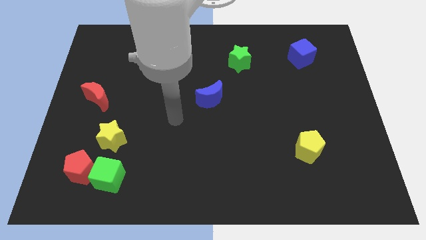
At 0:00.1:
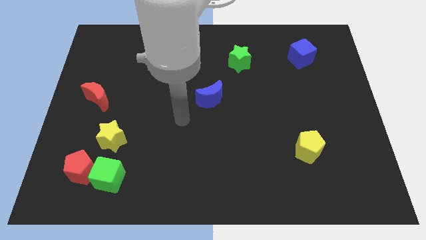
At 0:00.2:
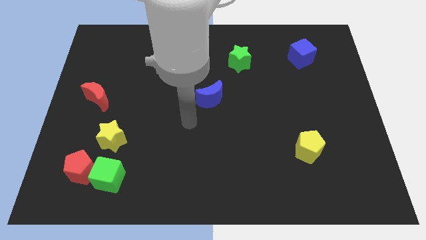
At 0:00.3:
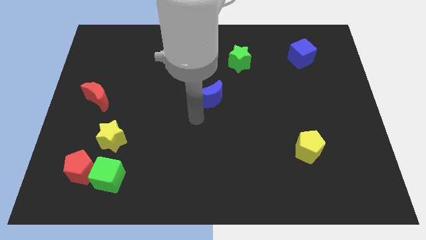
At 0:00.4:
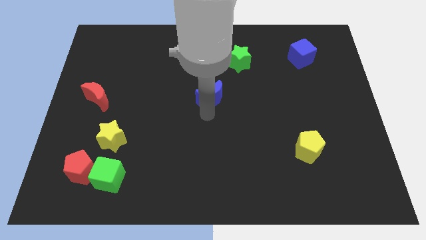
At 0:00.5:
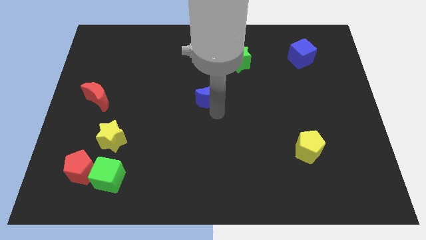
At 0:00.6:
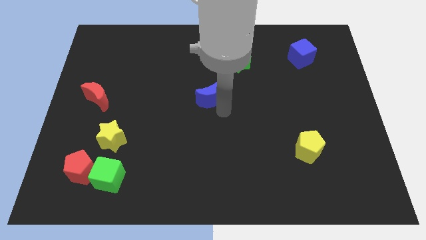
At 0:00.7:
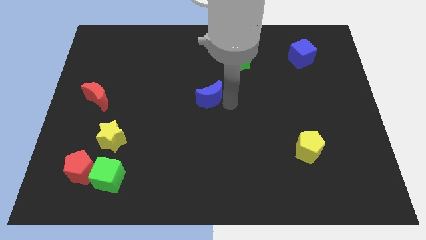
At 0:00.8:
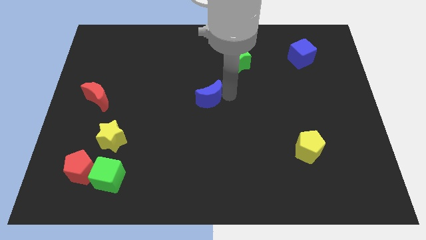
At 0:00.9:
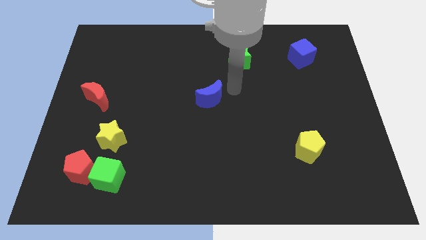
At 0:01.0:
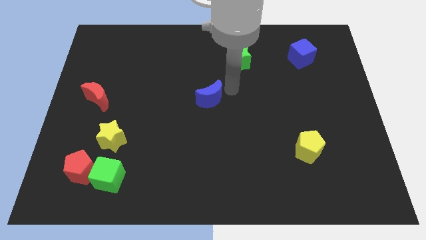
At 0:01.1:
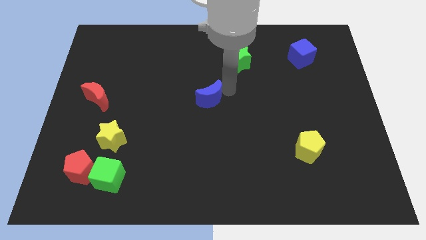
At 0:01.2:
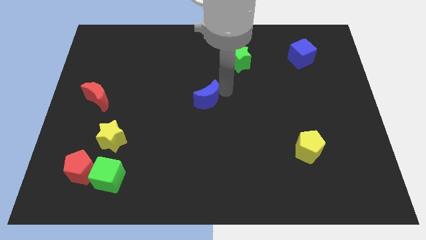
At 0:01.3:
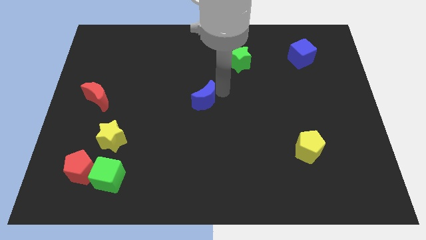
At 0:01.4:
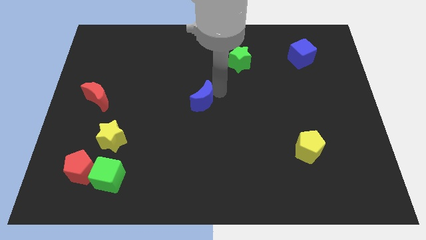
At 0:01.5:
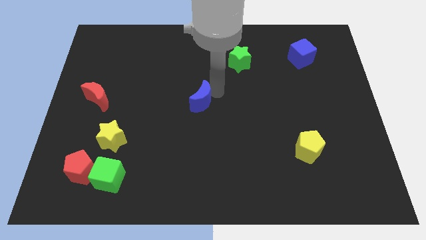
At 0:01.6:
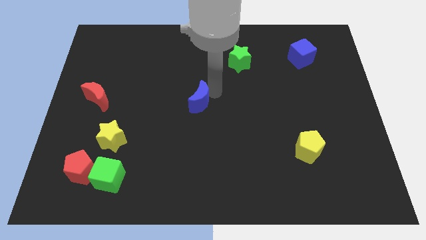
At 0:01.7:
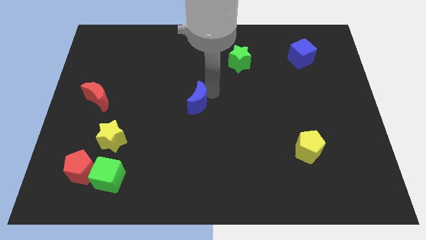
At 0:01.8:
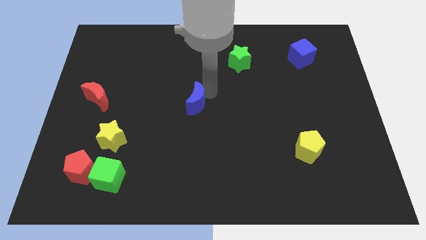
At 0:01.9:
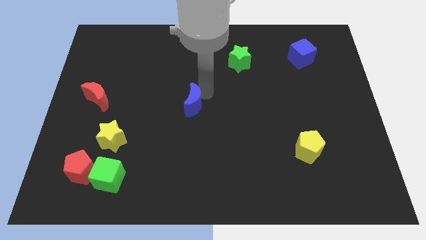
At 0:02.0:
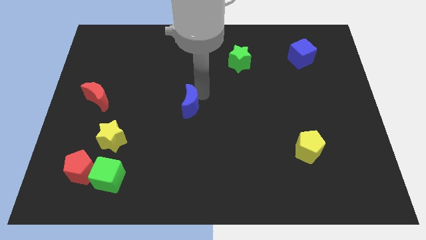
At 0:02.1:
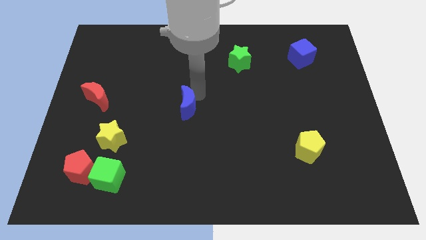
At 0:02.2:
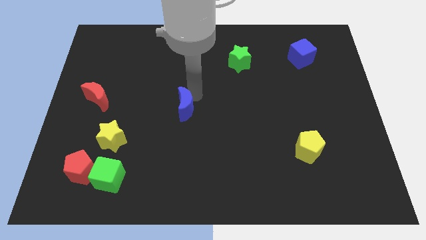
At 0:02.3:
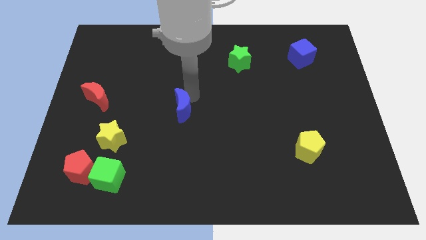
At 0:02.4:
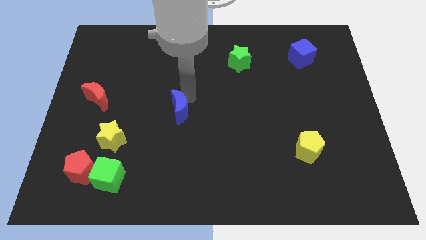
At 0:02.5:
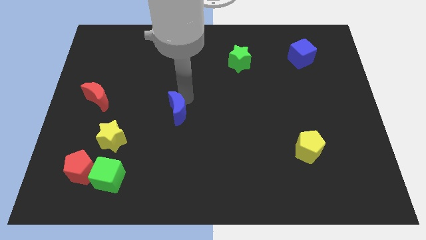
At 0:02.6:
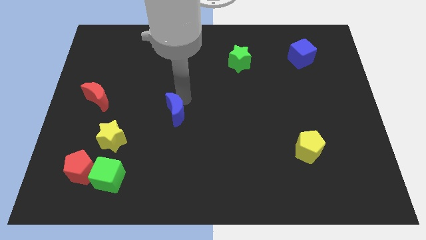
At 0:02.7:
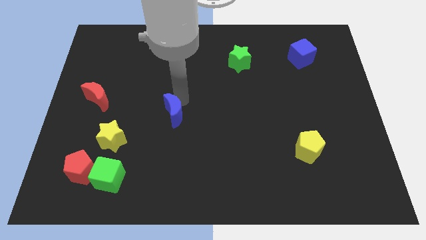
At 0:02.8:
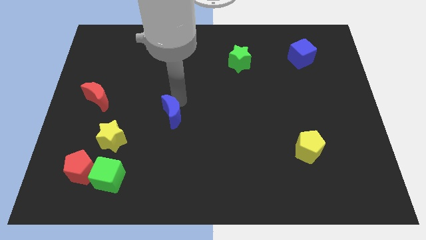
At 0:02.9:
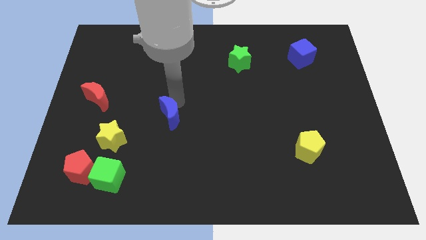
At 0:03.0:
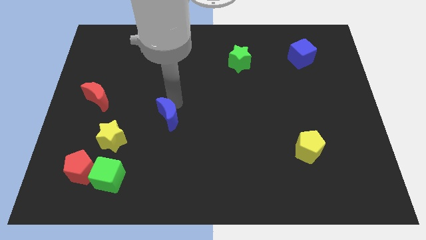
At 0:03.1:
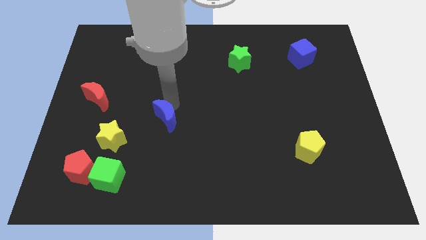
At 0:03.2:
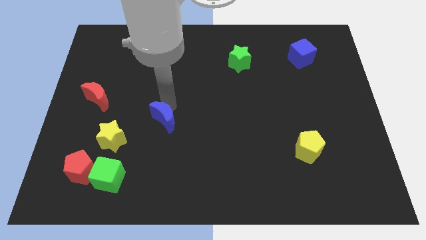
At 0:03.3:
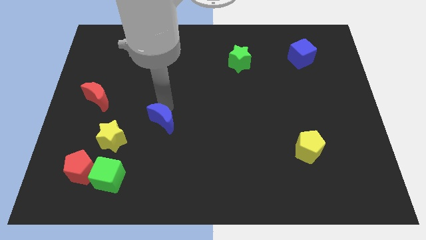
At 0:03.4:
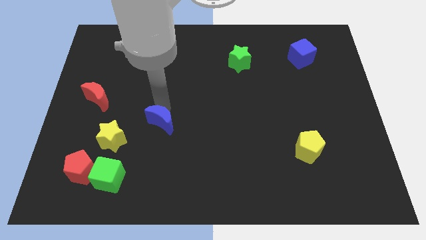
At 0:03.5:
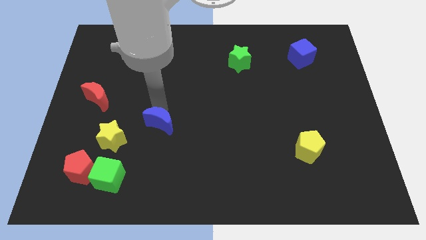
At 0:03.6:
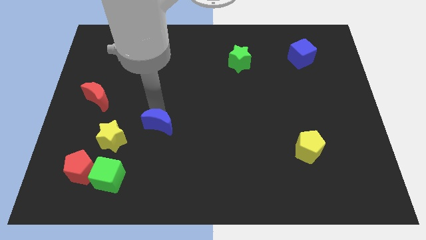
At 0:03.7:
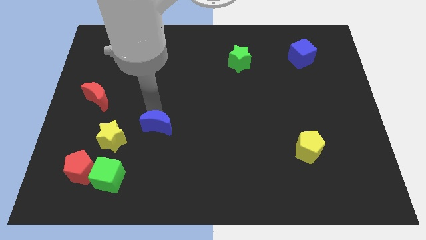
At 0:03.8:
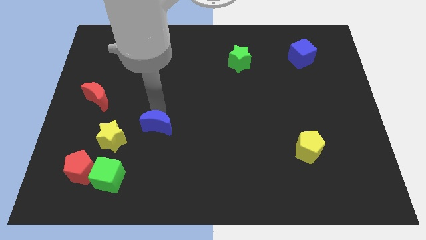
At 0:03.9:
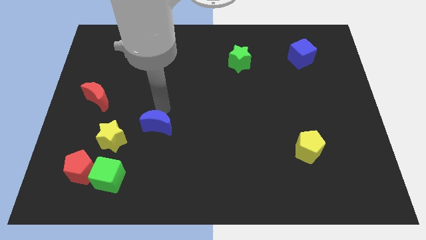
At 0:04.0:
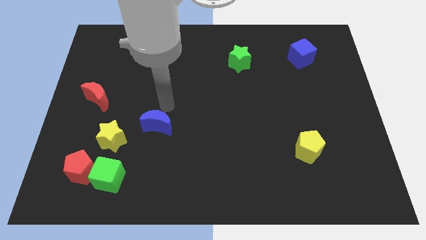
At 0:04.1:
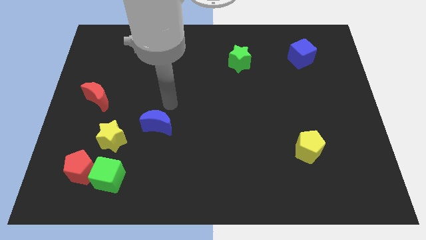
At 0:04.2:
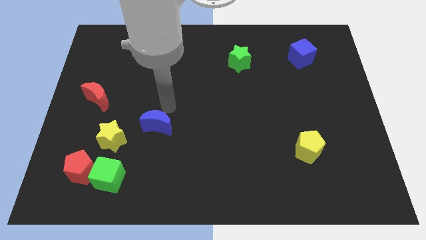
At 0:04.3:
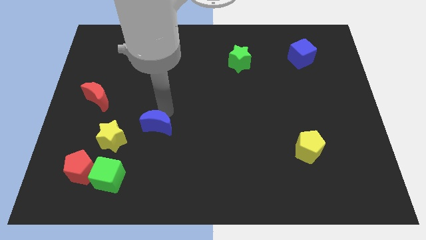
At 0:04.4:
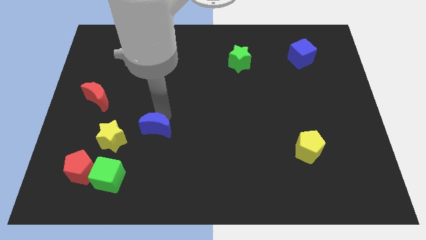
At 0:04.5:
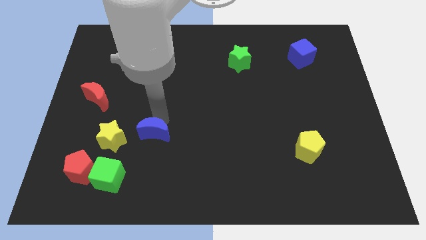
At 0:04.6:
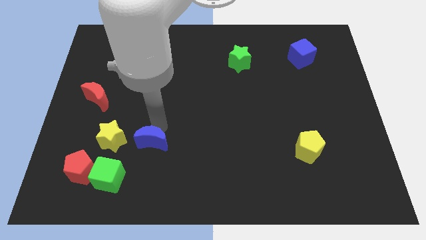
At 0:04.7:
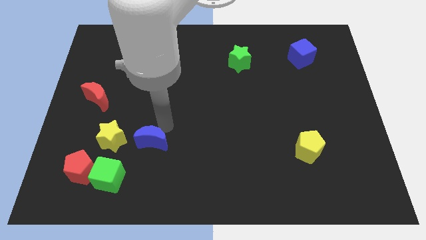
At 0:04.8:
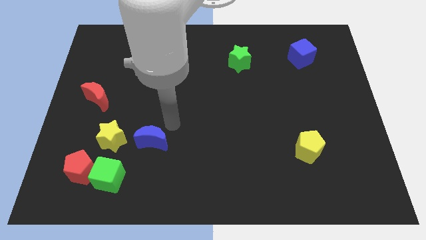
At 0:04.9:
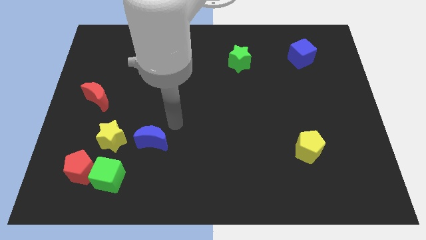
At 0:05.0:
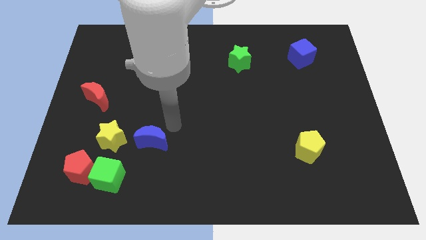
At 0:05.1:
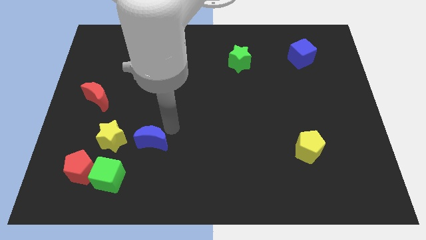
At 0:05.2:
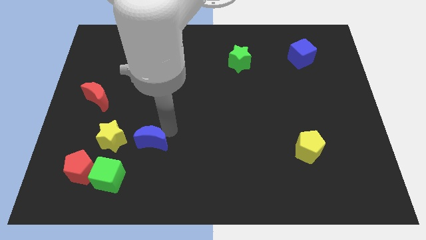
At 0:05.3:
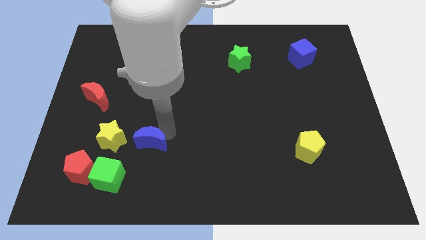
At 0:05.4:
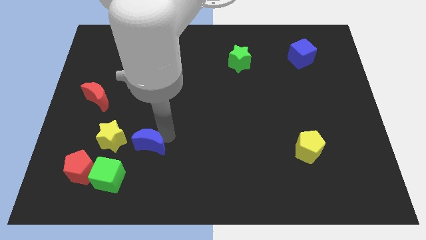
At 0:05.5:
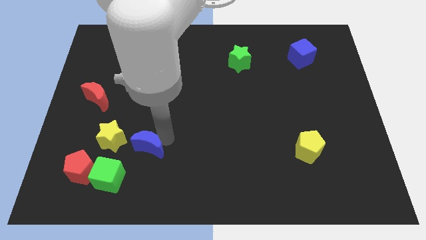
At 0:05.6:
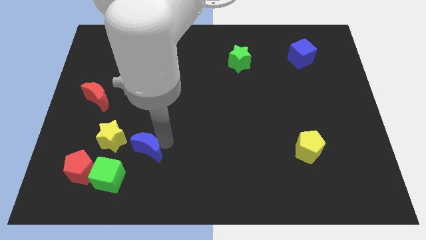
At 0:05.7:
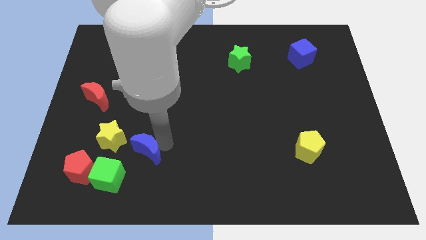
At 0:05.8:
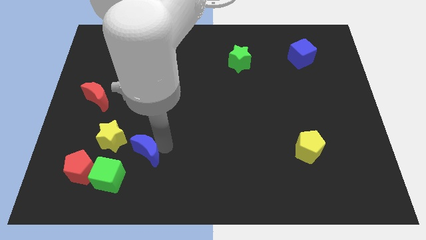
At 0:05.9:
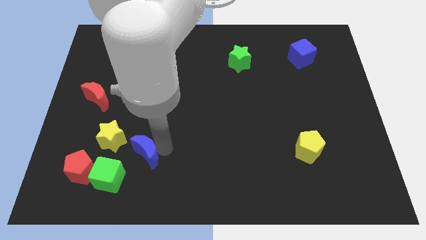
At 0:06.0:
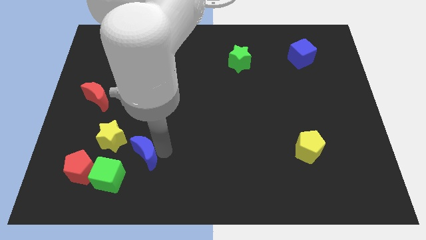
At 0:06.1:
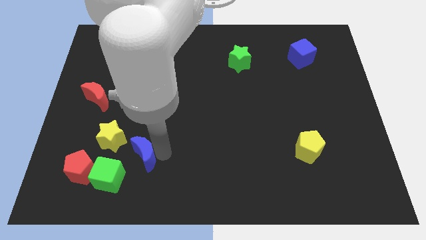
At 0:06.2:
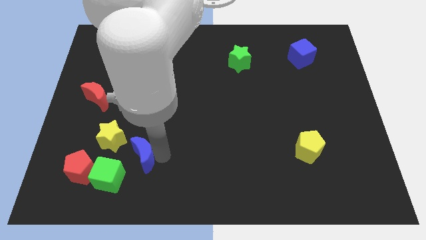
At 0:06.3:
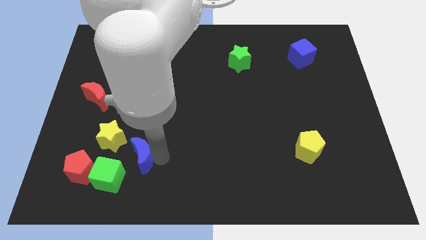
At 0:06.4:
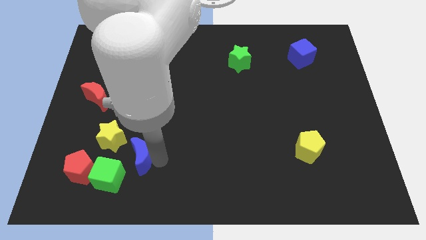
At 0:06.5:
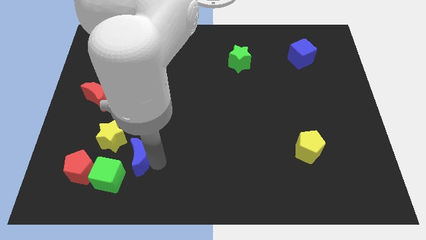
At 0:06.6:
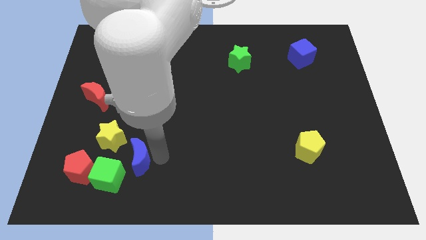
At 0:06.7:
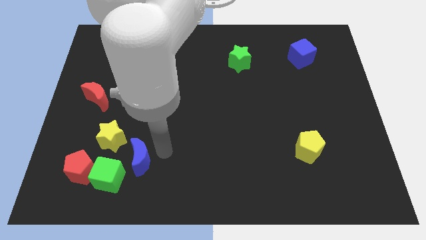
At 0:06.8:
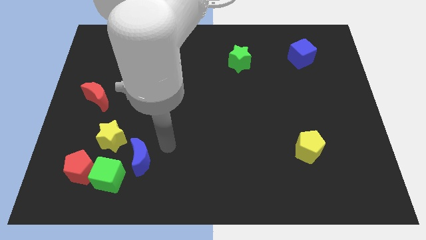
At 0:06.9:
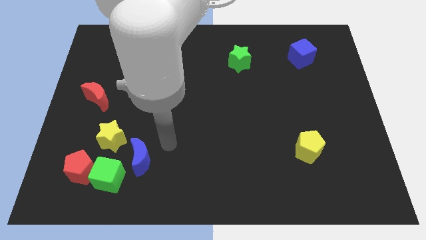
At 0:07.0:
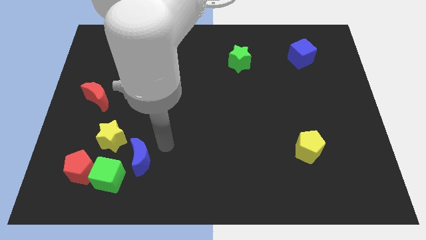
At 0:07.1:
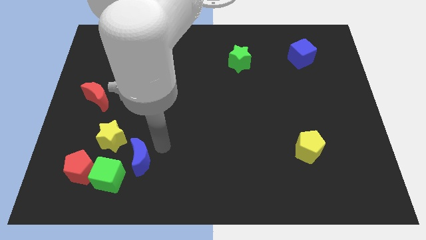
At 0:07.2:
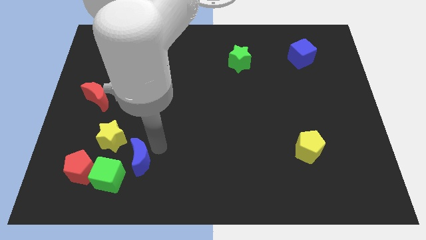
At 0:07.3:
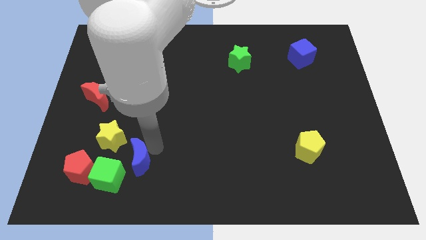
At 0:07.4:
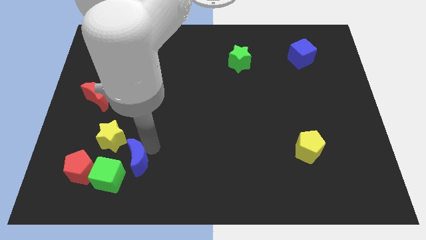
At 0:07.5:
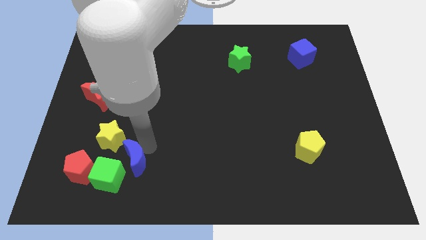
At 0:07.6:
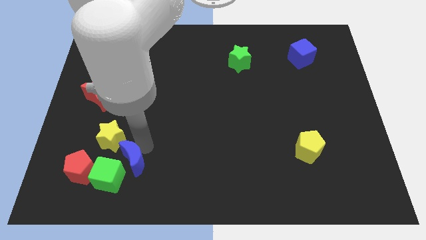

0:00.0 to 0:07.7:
put the blue moon close to the green cube
